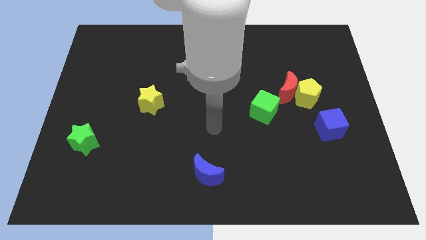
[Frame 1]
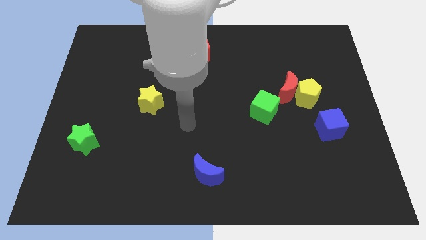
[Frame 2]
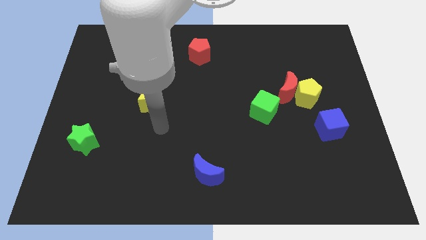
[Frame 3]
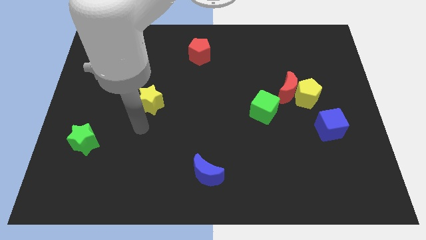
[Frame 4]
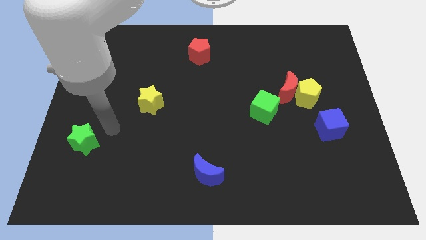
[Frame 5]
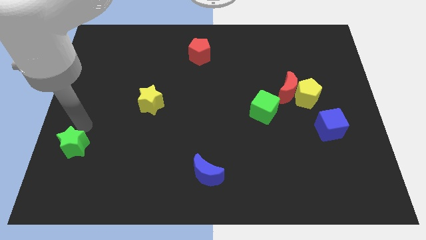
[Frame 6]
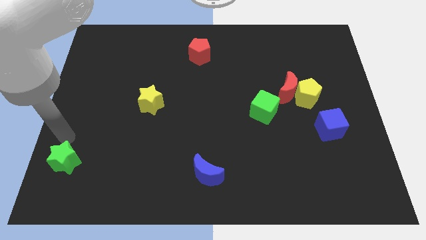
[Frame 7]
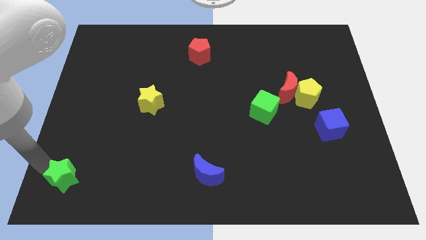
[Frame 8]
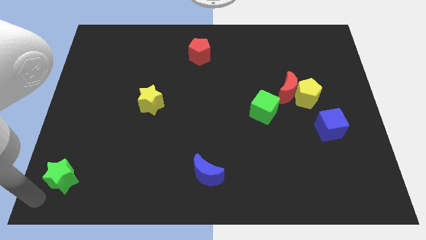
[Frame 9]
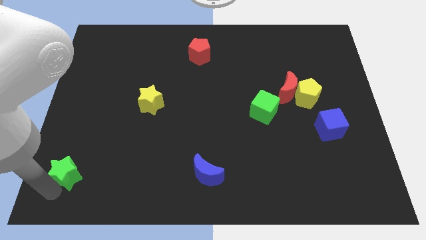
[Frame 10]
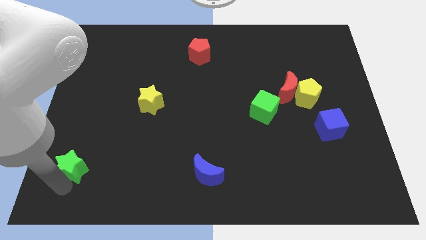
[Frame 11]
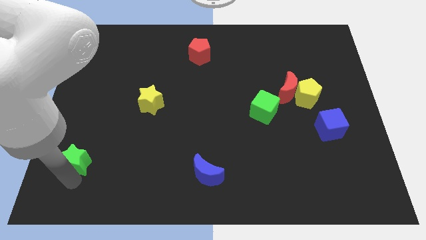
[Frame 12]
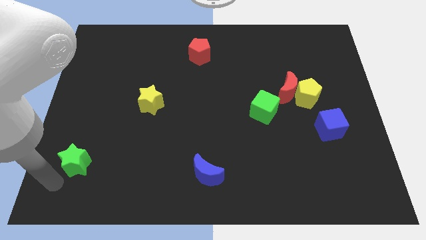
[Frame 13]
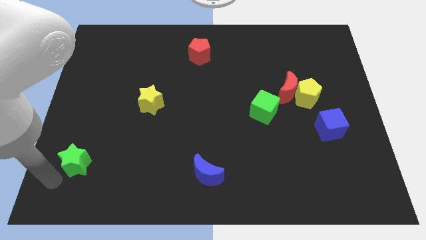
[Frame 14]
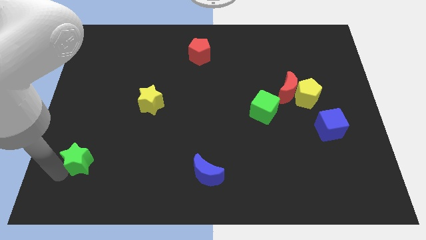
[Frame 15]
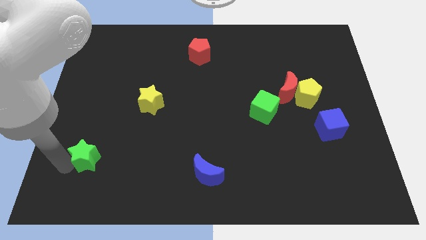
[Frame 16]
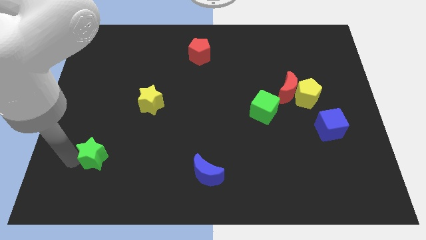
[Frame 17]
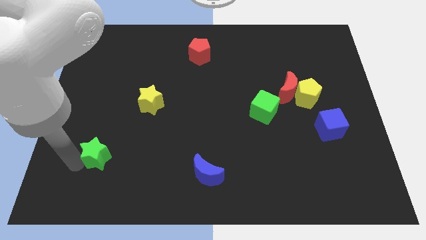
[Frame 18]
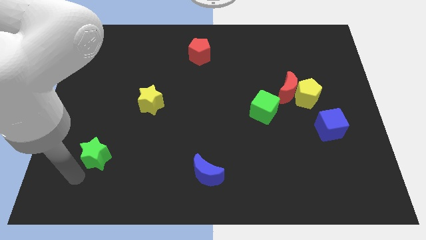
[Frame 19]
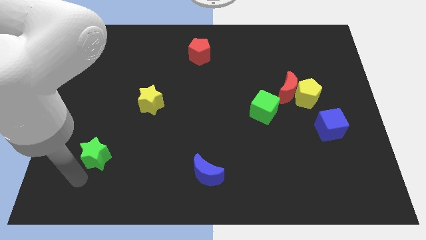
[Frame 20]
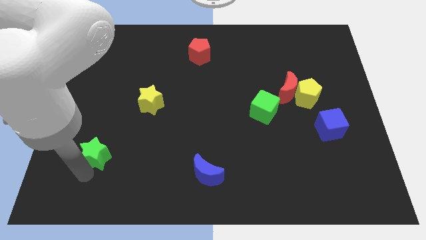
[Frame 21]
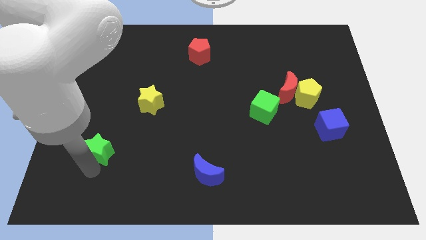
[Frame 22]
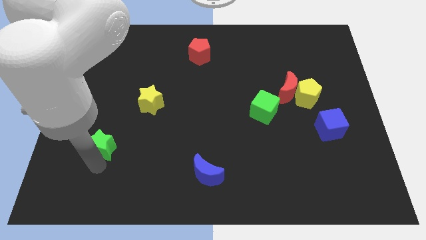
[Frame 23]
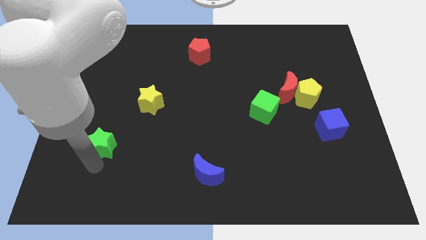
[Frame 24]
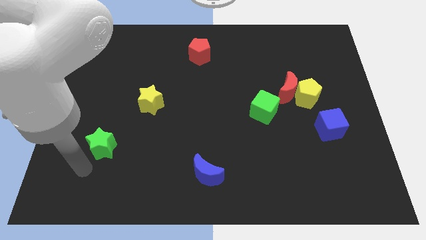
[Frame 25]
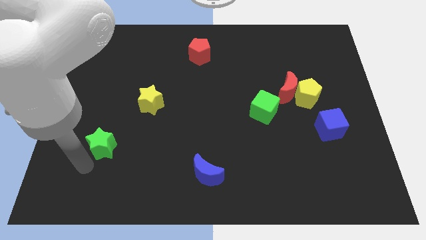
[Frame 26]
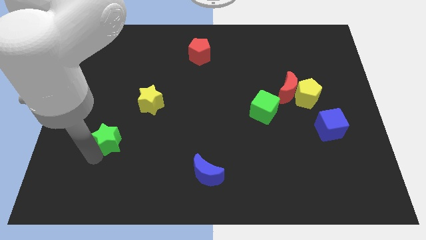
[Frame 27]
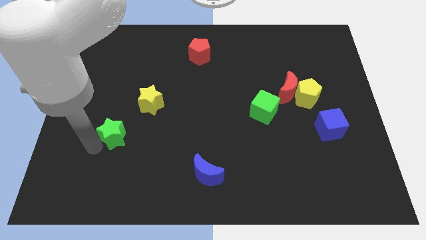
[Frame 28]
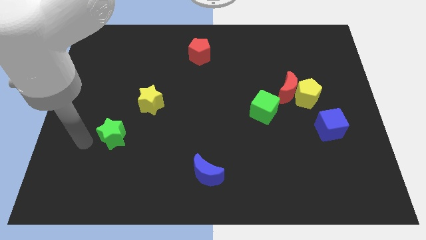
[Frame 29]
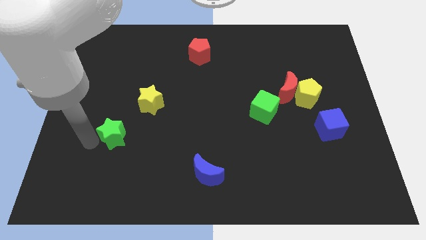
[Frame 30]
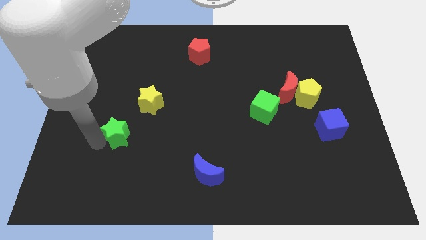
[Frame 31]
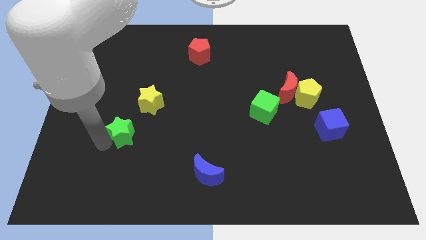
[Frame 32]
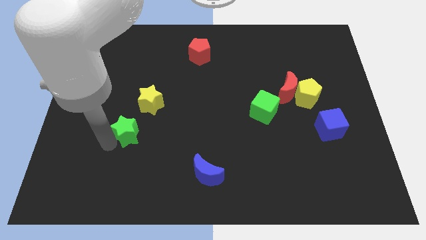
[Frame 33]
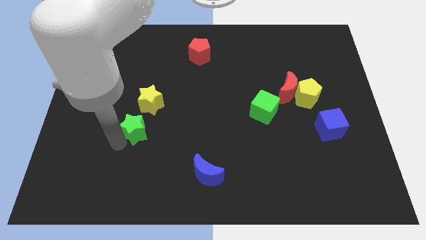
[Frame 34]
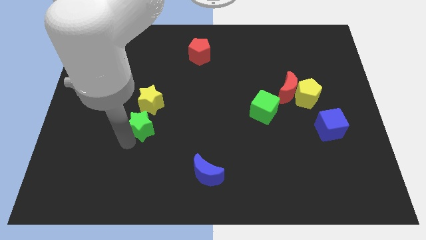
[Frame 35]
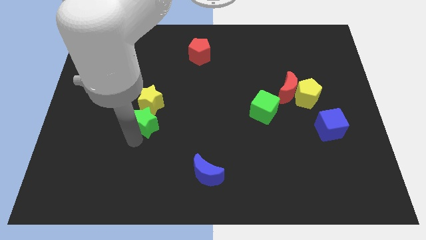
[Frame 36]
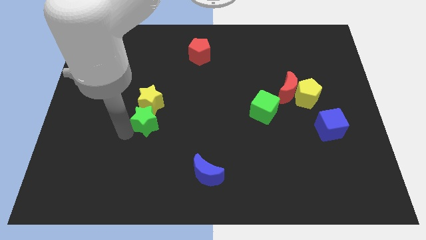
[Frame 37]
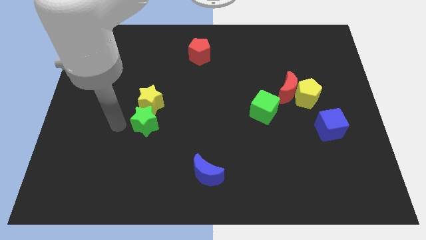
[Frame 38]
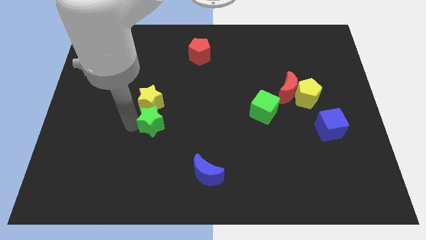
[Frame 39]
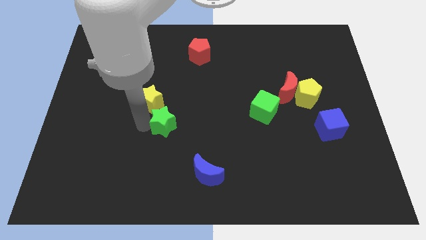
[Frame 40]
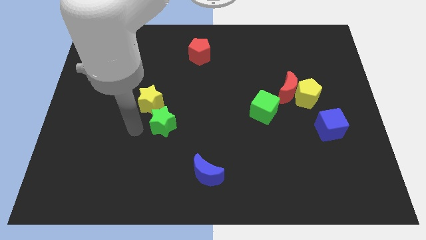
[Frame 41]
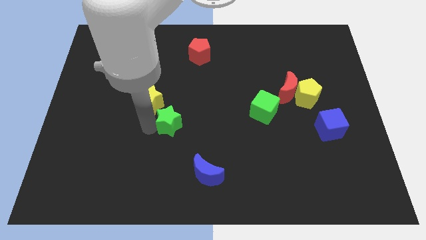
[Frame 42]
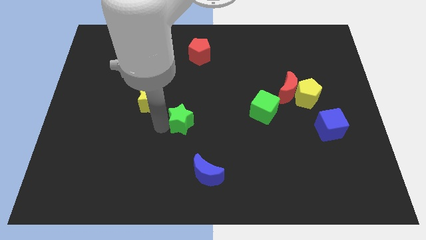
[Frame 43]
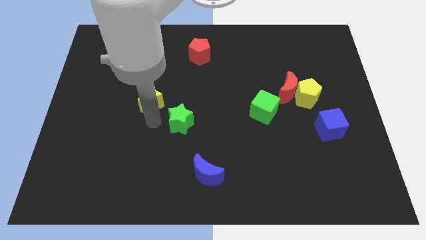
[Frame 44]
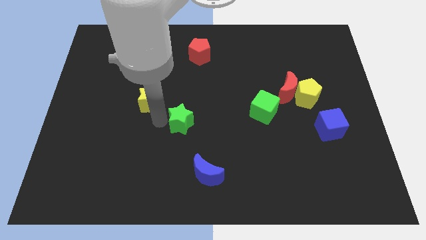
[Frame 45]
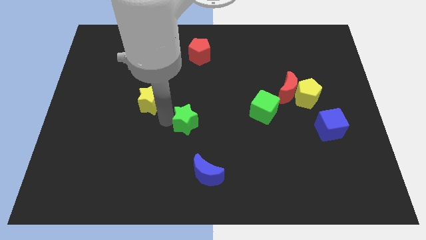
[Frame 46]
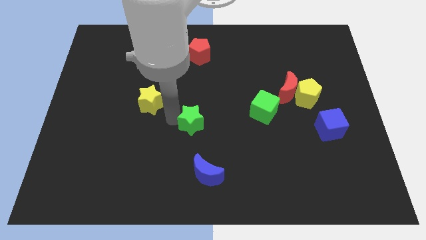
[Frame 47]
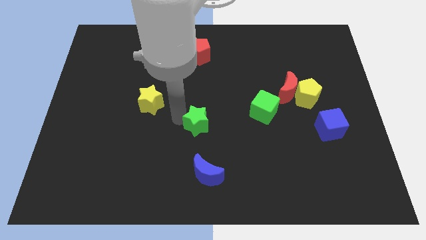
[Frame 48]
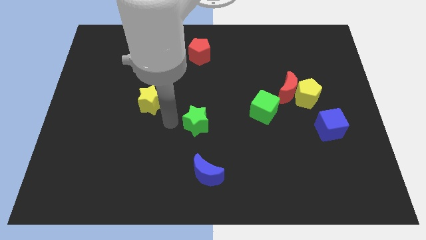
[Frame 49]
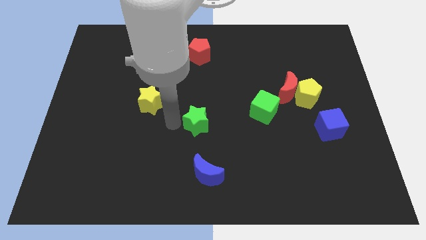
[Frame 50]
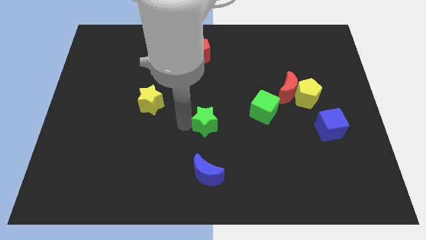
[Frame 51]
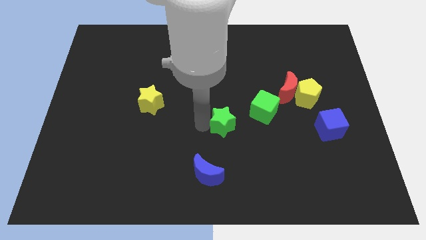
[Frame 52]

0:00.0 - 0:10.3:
slide the green star to the bottom left side of the green cube

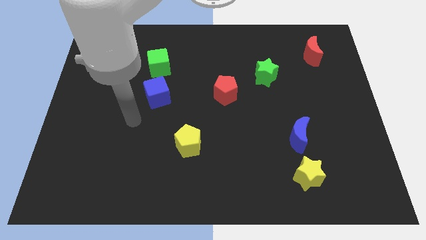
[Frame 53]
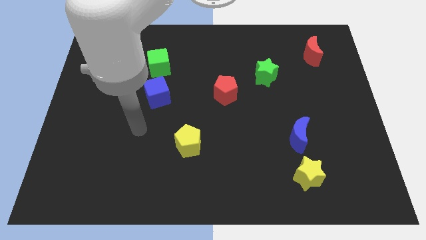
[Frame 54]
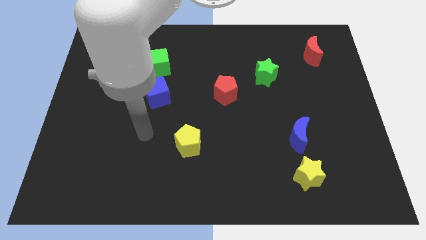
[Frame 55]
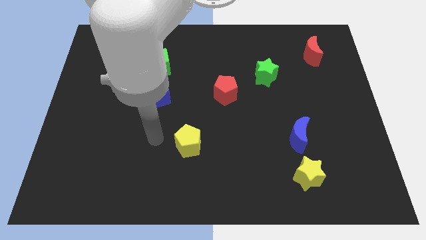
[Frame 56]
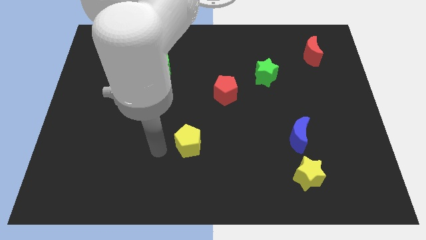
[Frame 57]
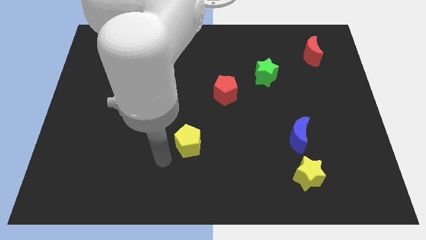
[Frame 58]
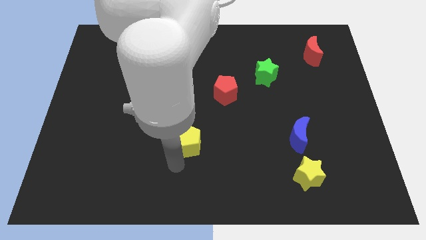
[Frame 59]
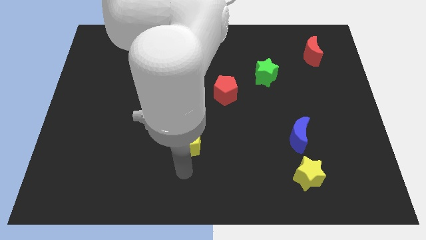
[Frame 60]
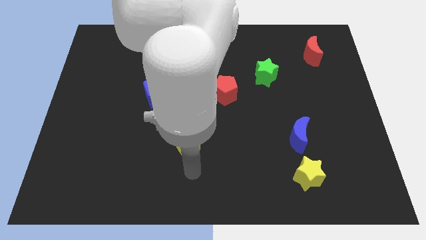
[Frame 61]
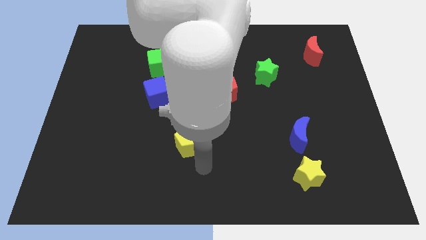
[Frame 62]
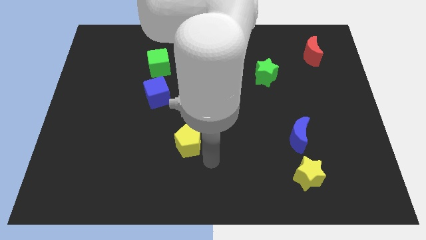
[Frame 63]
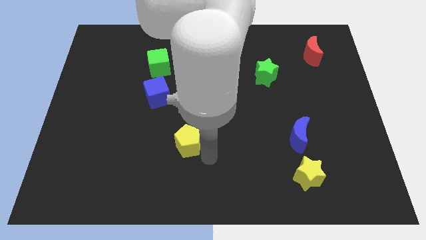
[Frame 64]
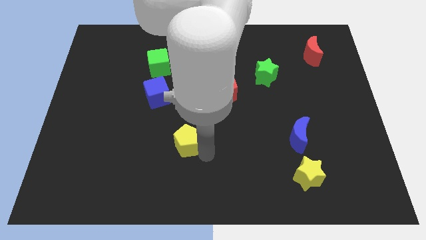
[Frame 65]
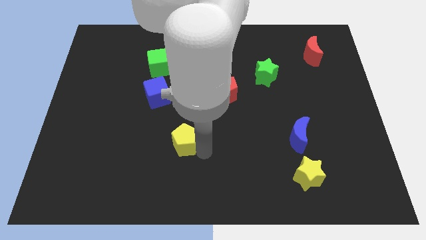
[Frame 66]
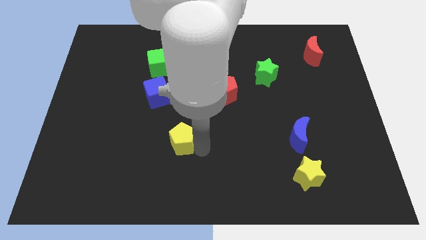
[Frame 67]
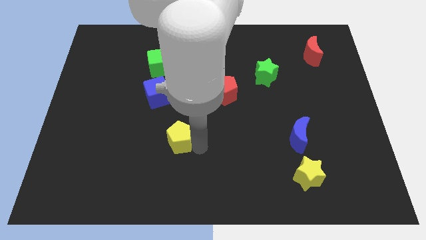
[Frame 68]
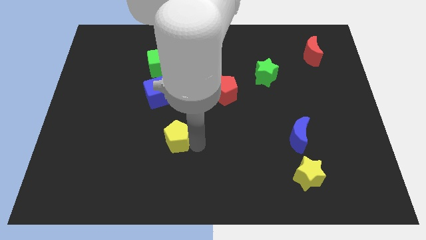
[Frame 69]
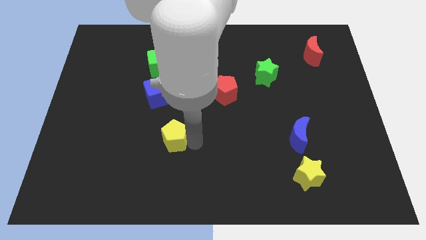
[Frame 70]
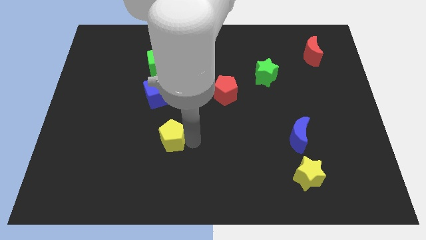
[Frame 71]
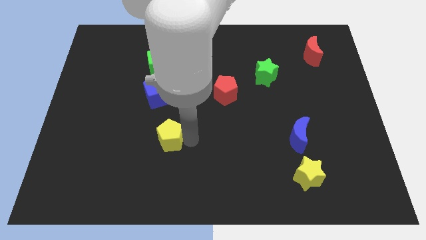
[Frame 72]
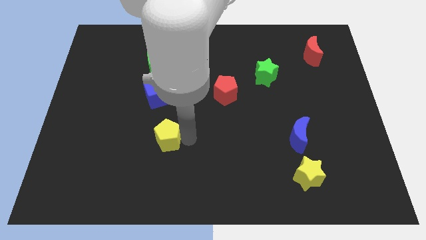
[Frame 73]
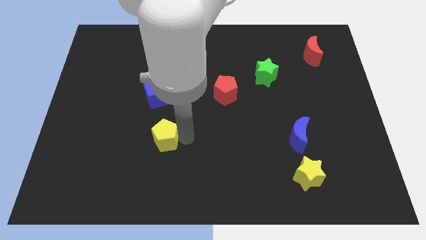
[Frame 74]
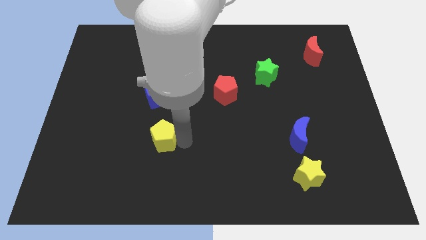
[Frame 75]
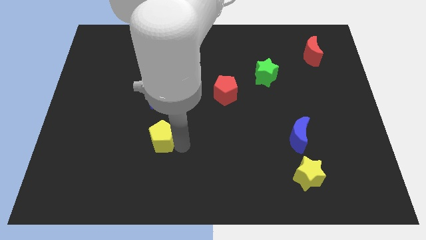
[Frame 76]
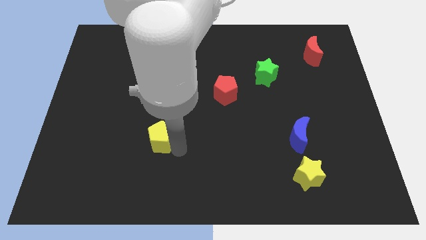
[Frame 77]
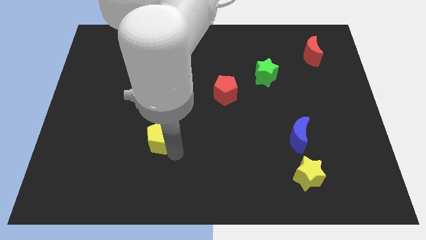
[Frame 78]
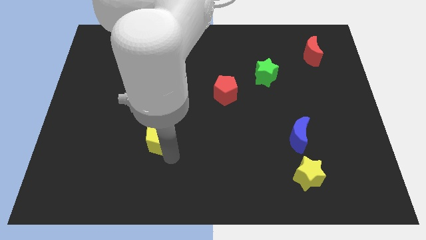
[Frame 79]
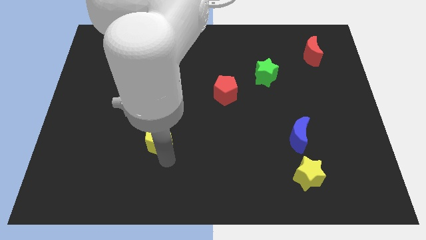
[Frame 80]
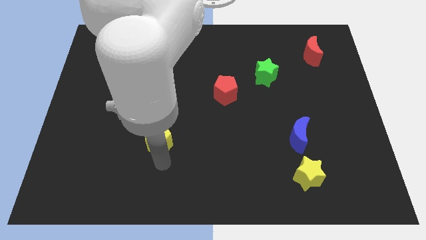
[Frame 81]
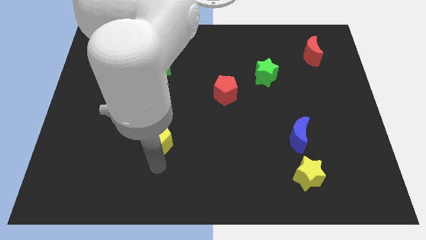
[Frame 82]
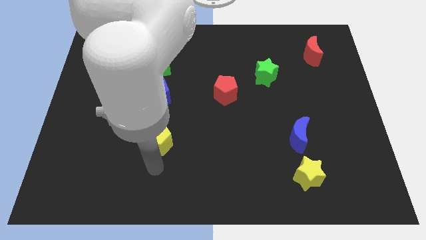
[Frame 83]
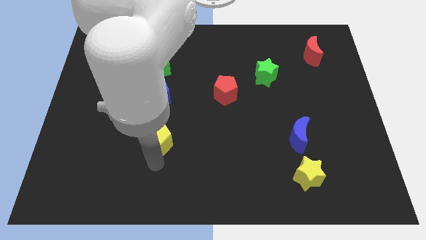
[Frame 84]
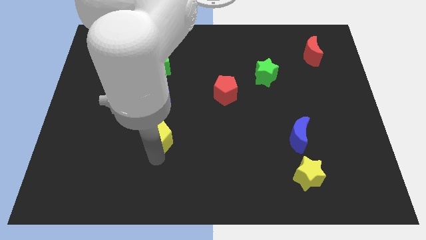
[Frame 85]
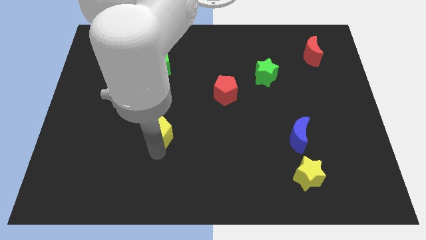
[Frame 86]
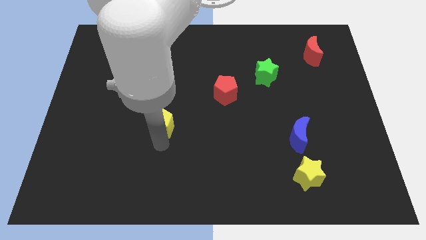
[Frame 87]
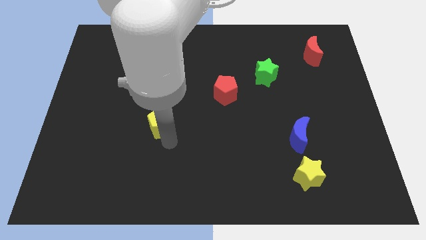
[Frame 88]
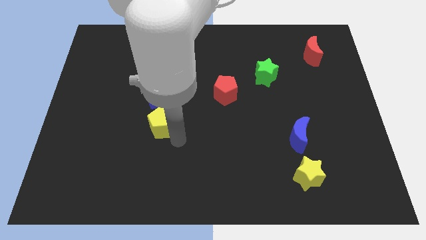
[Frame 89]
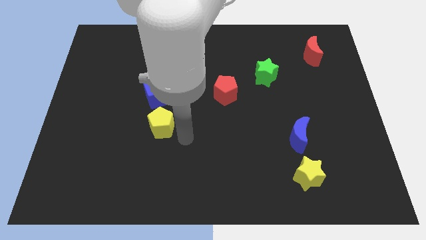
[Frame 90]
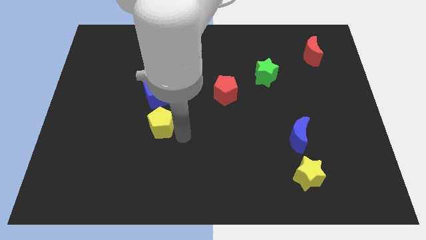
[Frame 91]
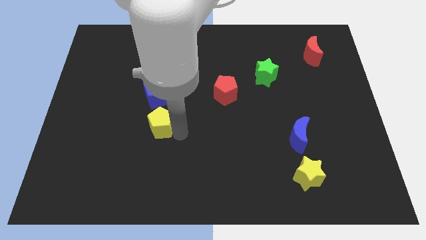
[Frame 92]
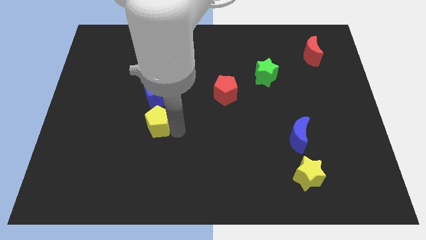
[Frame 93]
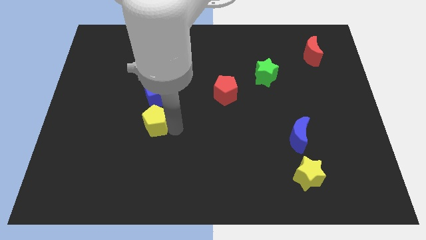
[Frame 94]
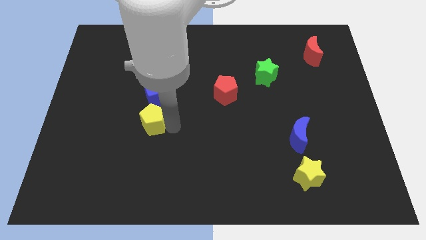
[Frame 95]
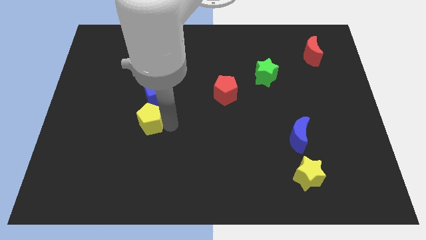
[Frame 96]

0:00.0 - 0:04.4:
put the yellow pentagon to the bottom left side of the blue cube
